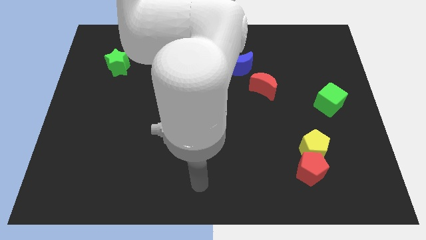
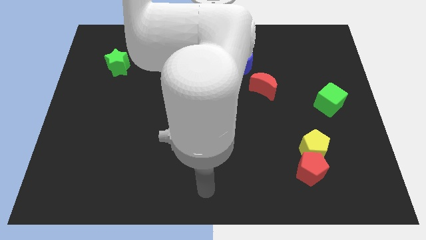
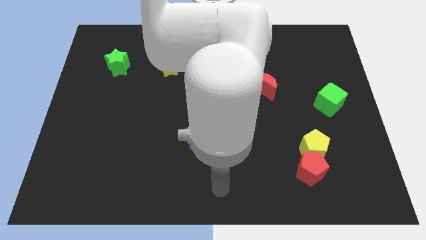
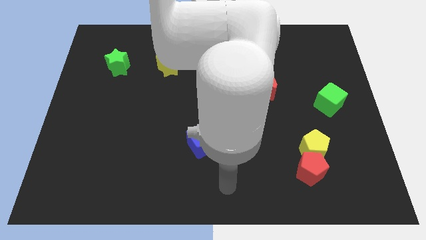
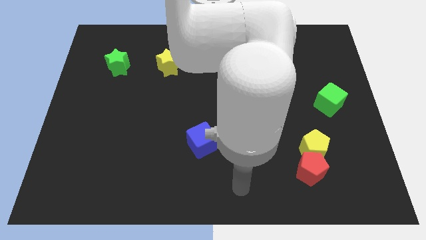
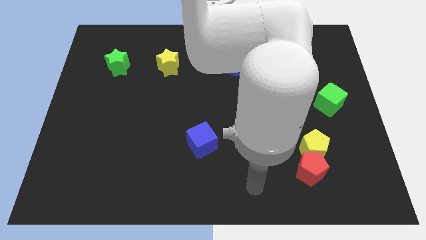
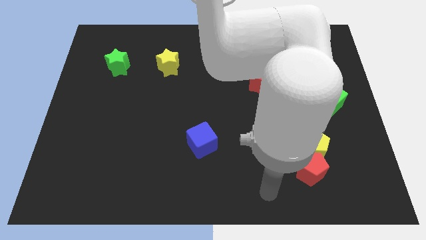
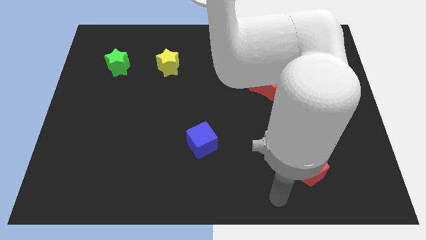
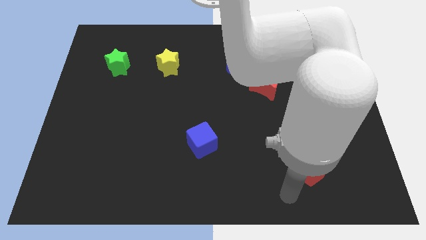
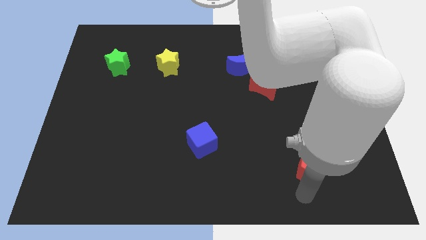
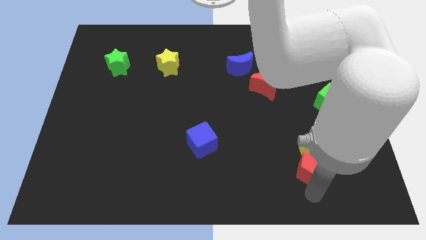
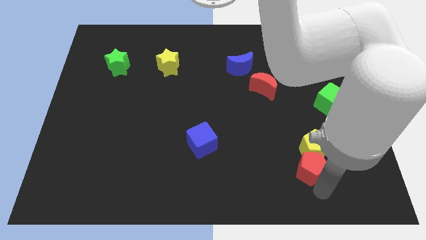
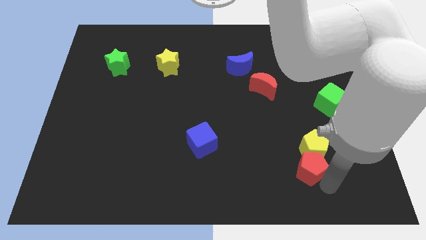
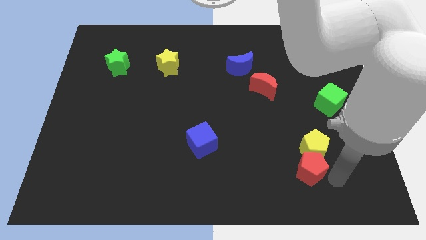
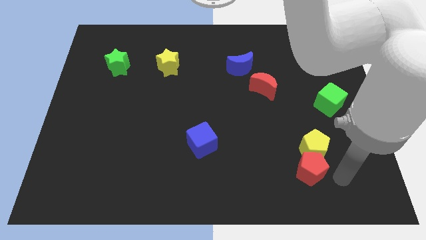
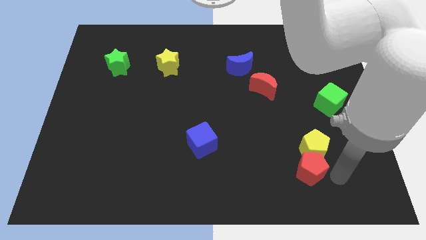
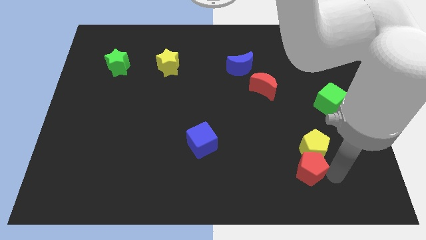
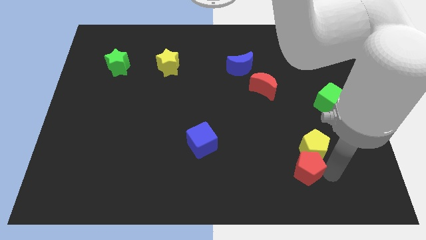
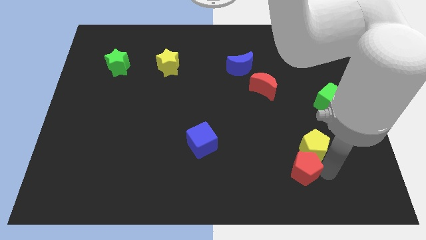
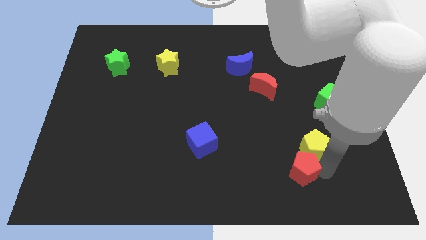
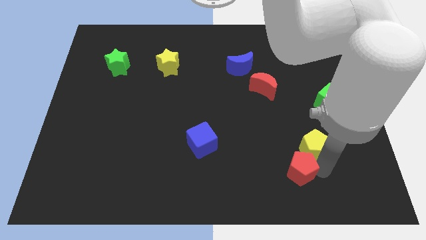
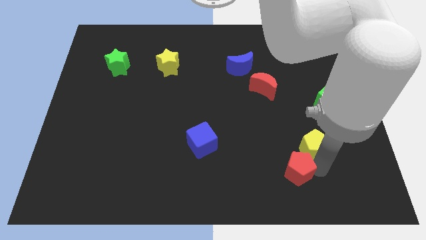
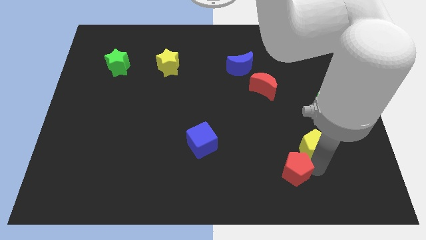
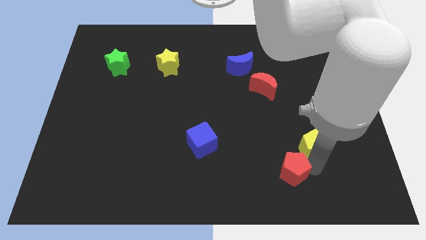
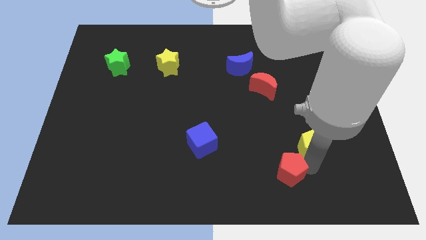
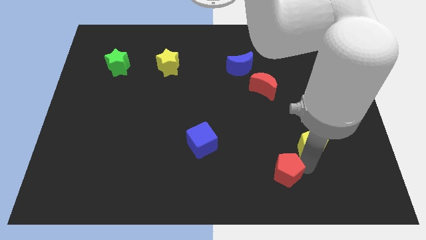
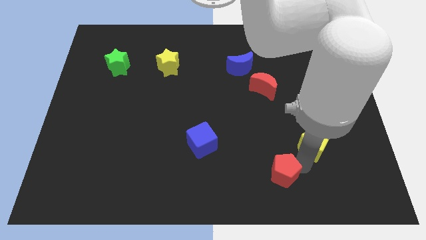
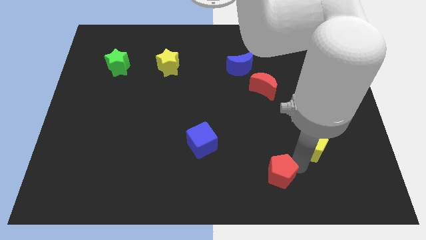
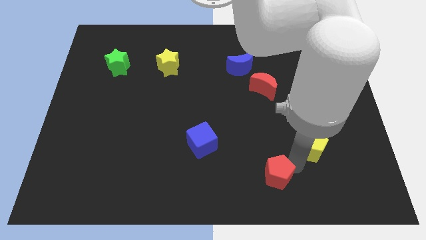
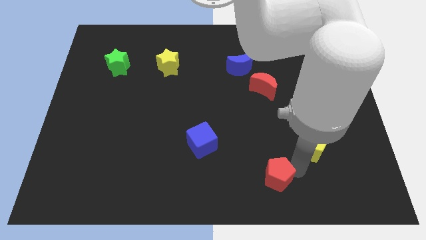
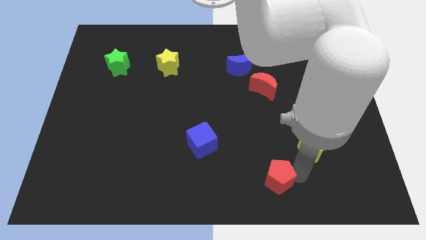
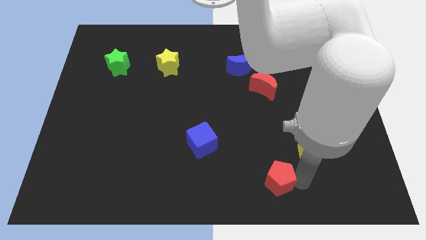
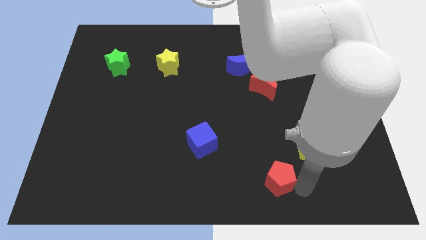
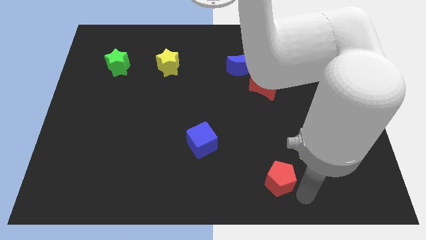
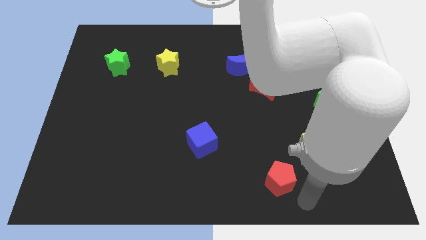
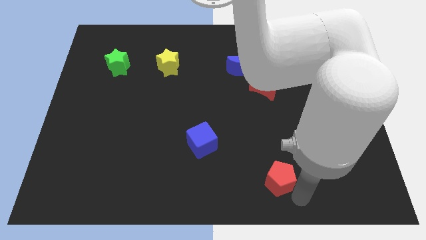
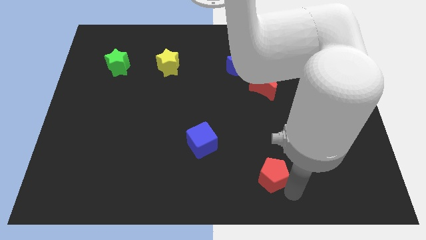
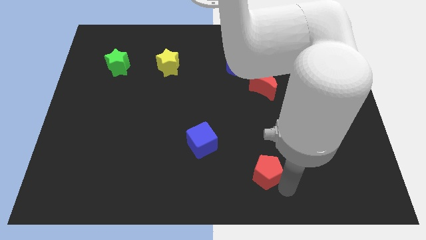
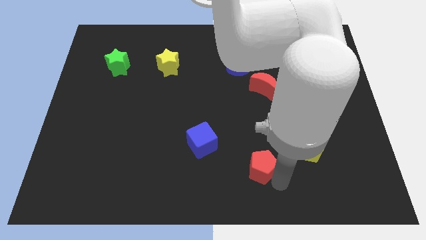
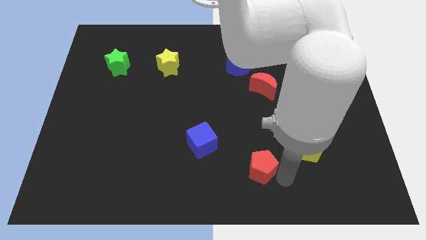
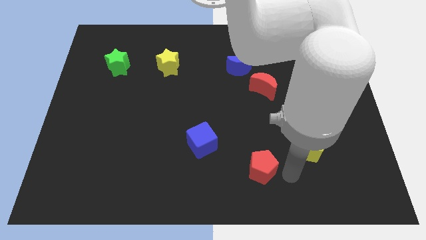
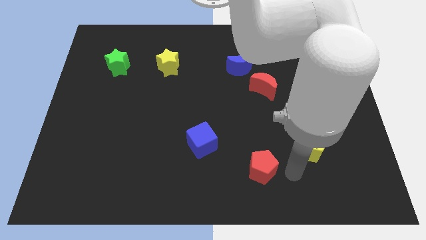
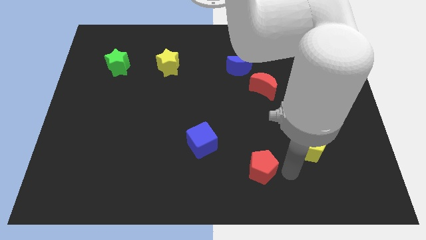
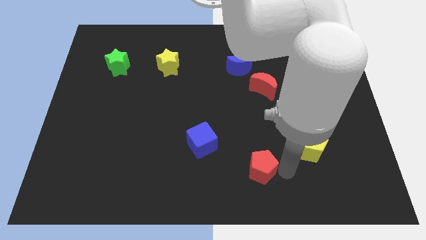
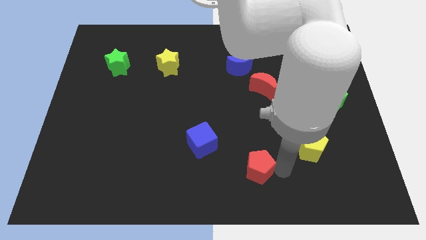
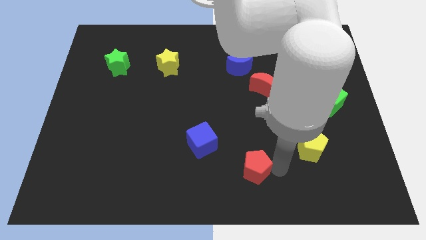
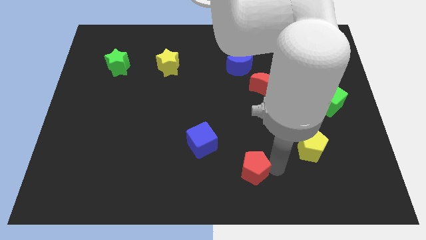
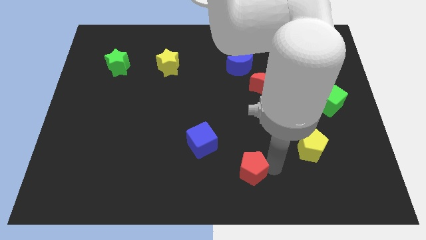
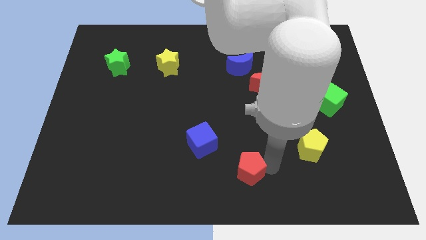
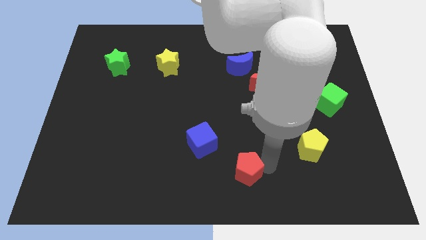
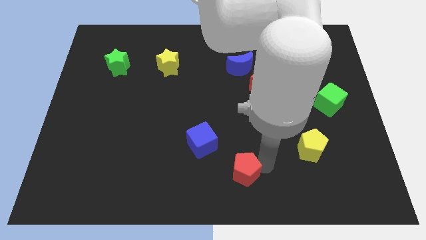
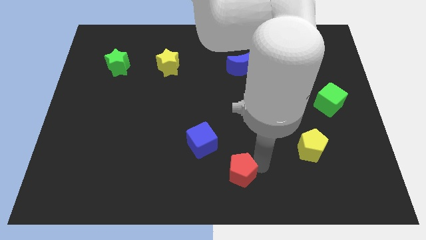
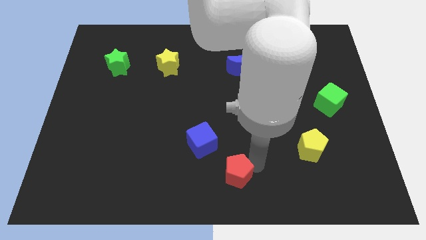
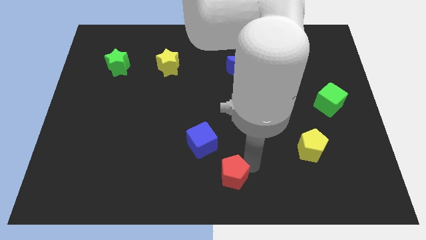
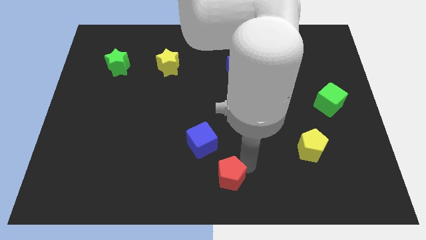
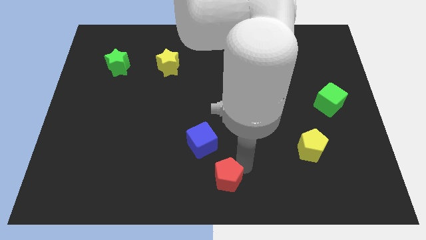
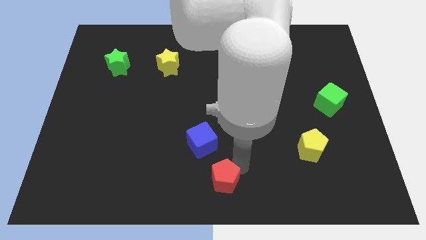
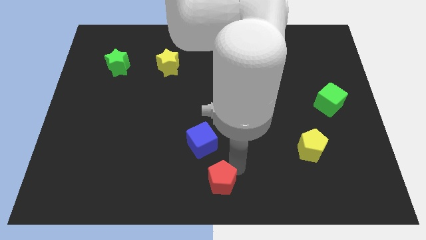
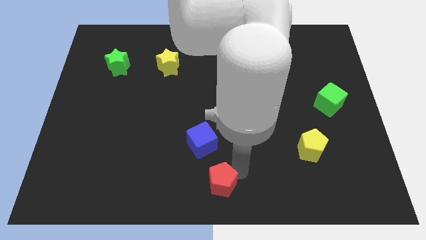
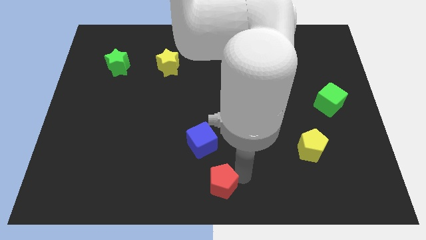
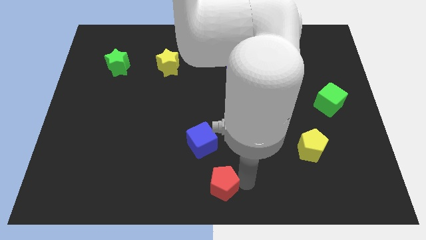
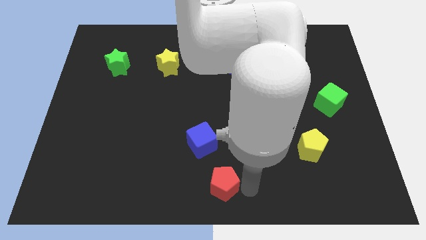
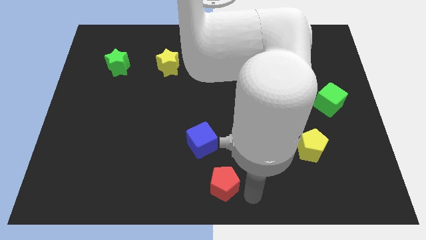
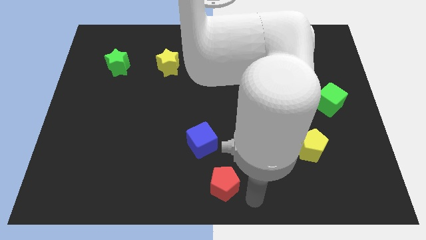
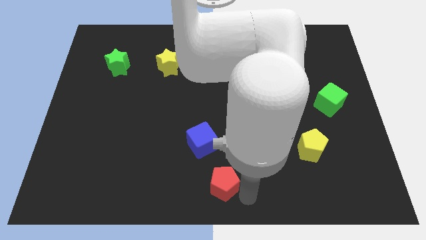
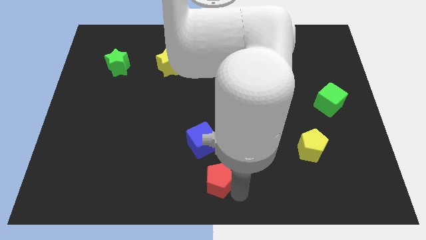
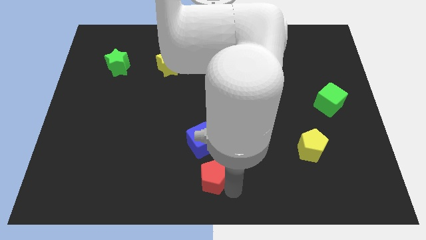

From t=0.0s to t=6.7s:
push the red pentagon left

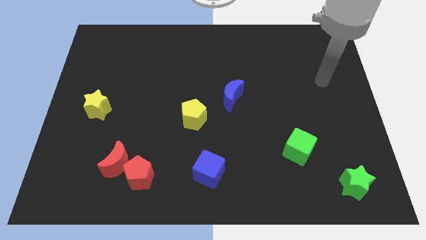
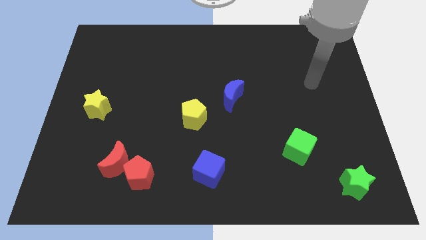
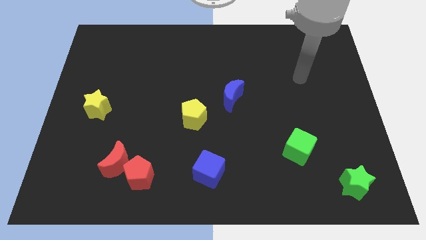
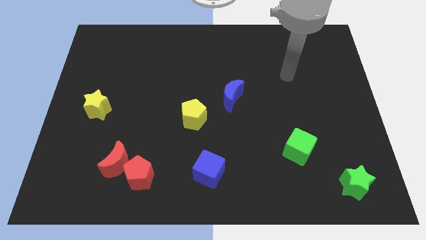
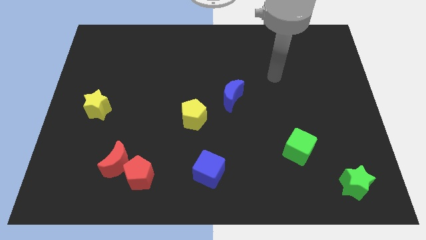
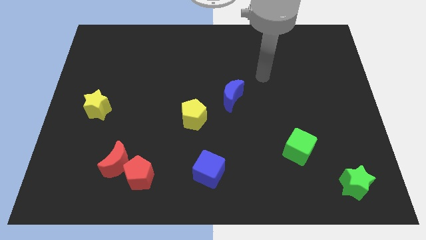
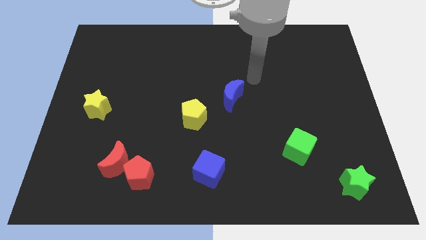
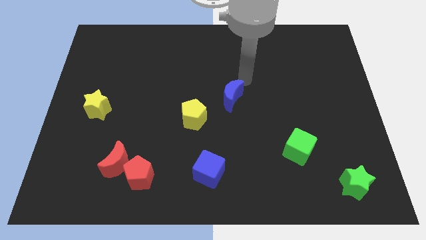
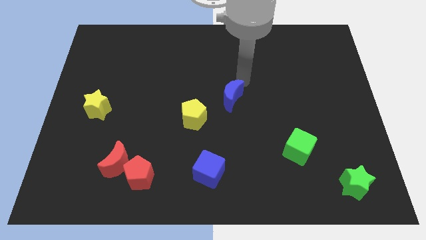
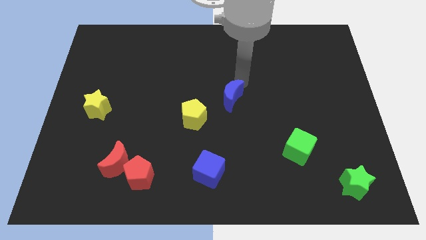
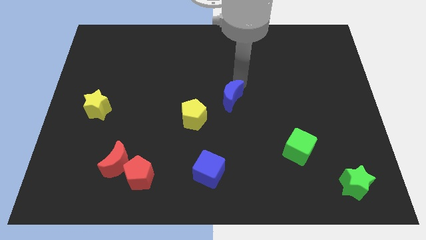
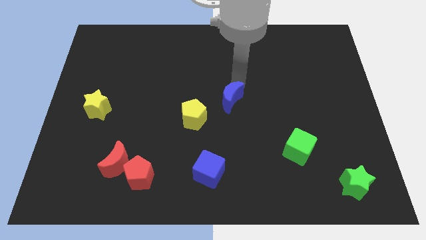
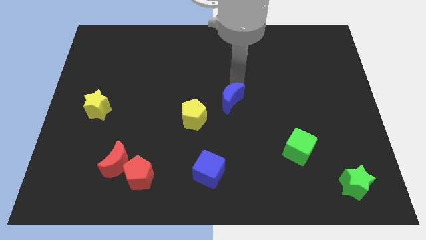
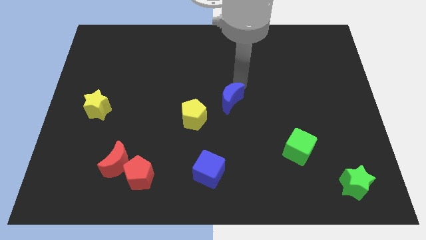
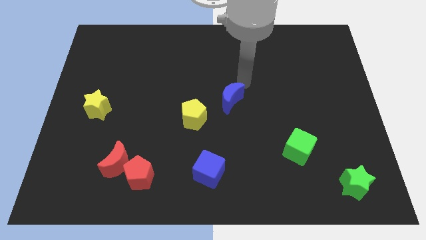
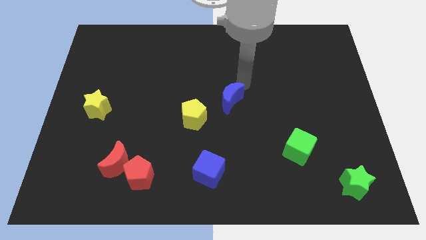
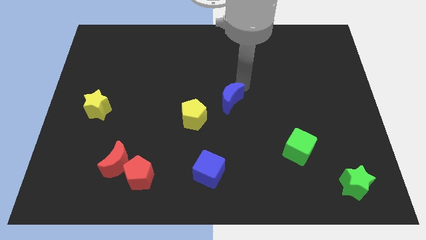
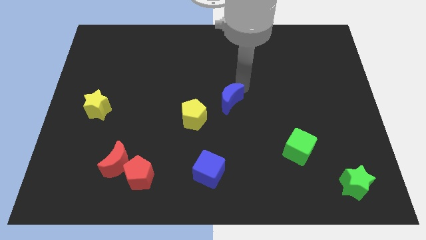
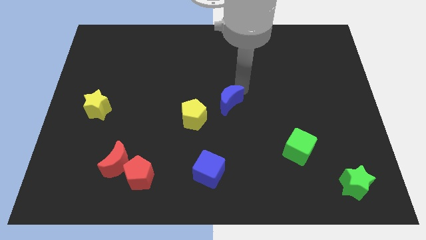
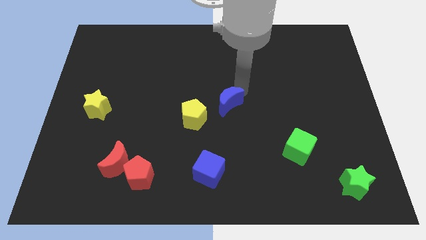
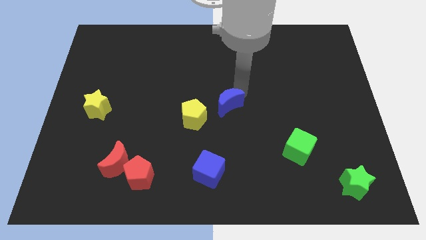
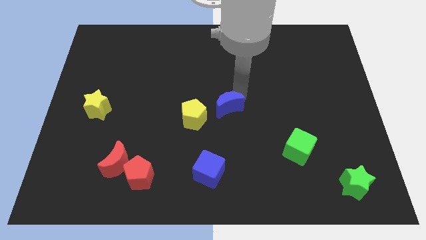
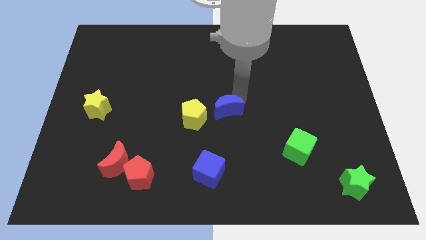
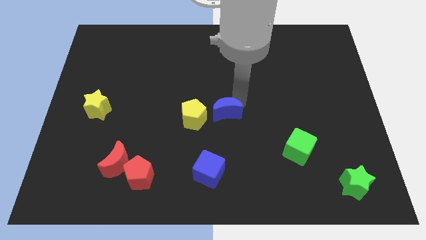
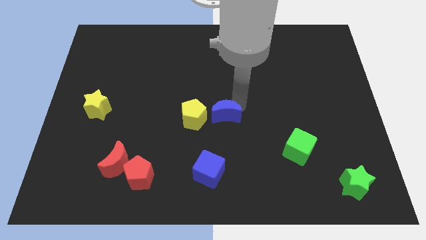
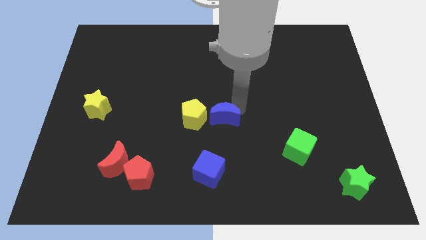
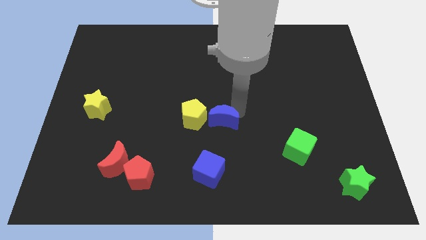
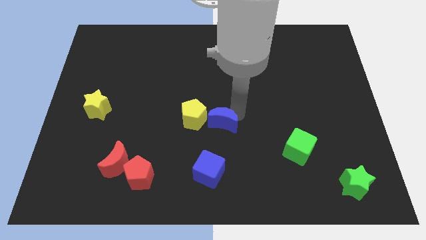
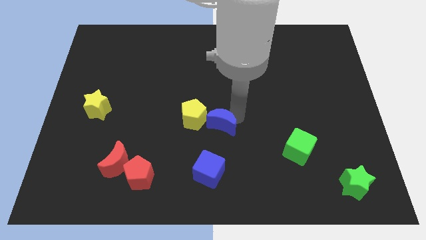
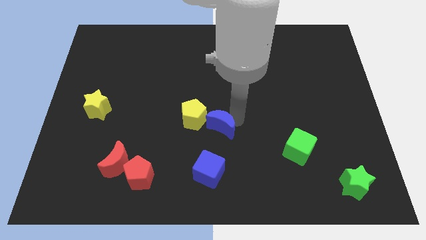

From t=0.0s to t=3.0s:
push the blue moon a little bit down and then left
